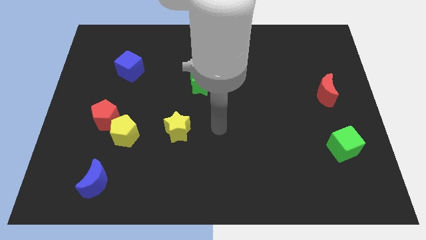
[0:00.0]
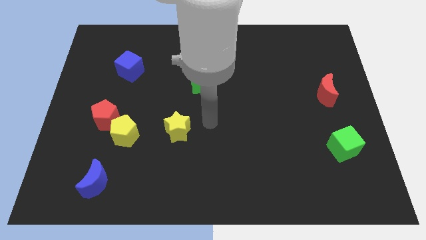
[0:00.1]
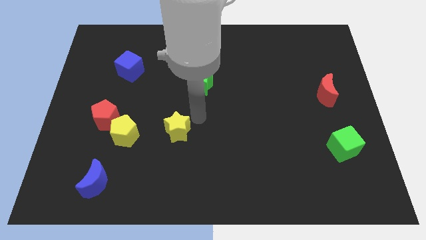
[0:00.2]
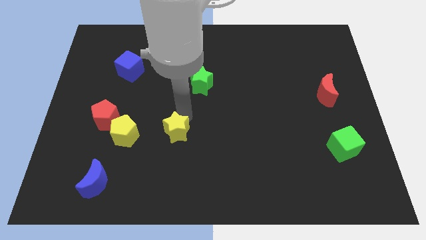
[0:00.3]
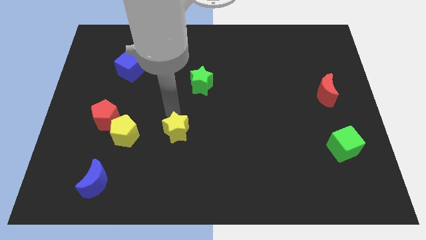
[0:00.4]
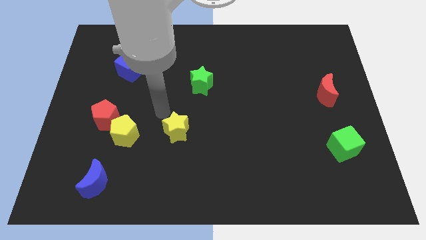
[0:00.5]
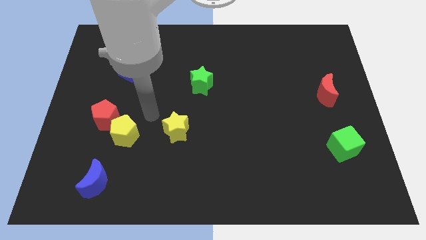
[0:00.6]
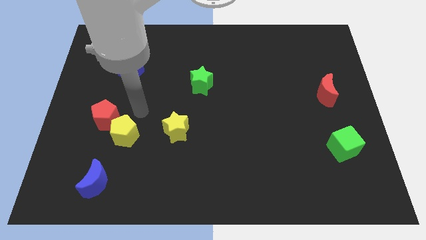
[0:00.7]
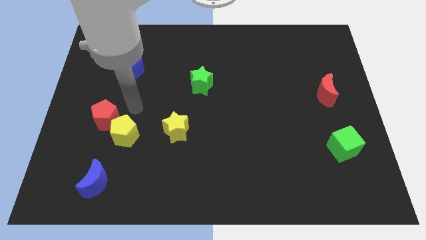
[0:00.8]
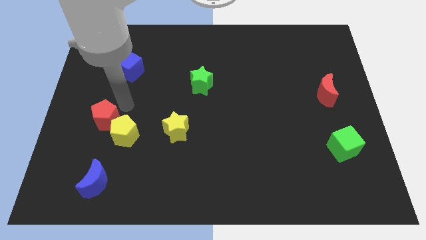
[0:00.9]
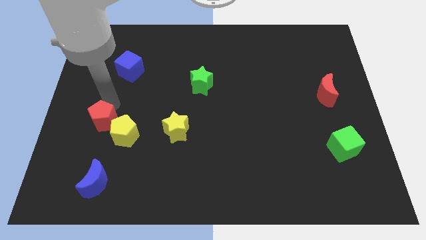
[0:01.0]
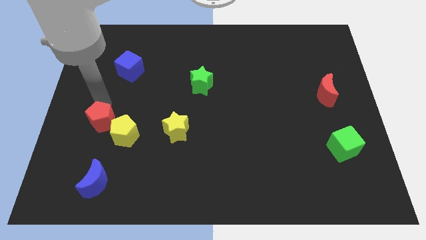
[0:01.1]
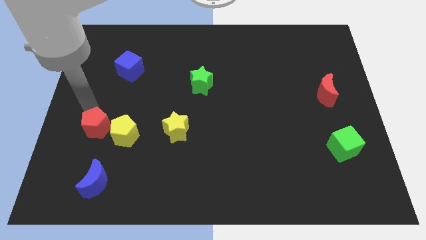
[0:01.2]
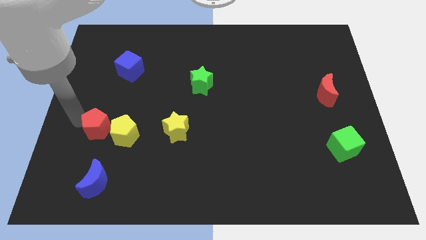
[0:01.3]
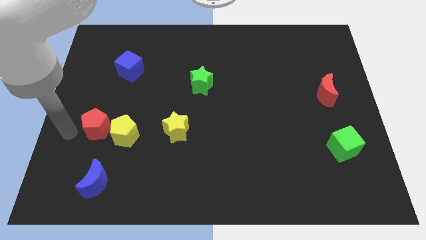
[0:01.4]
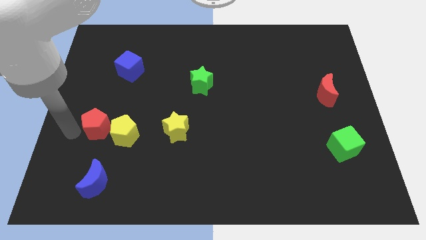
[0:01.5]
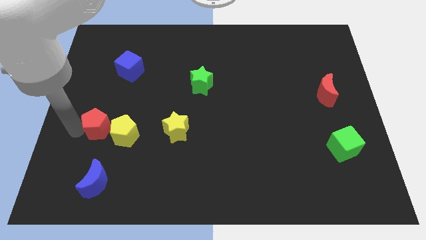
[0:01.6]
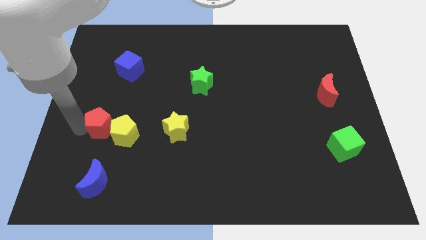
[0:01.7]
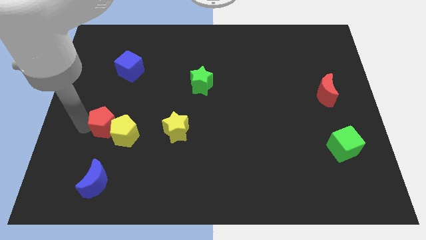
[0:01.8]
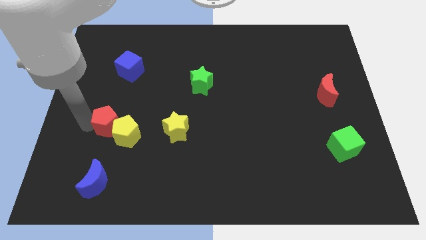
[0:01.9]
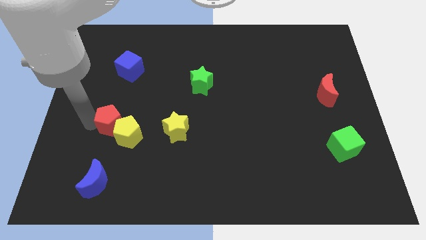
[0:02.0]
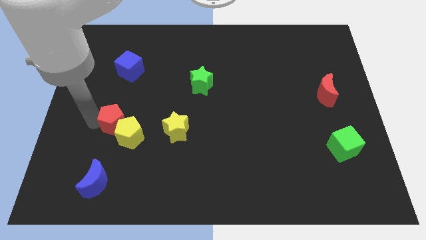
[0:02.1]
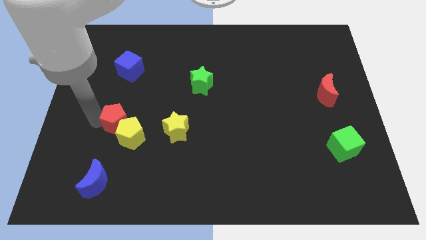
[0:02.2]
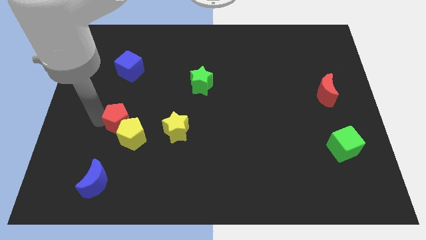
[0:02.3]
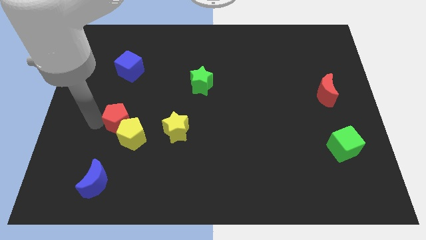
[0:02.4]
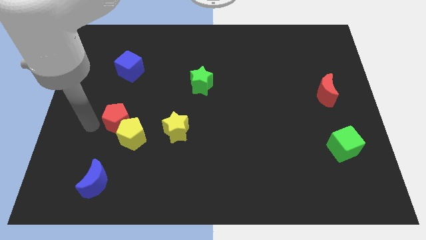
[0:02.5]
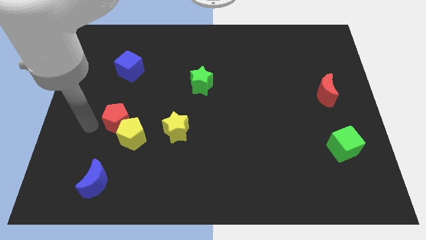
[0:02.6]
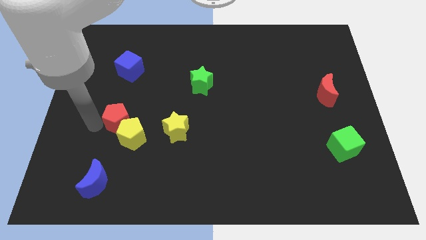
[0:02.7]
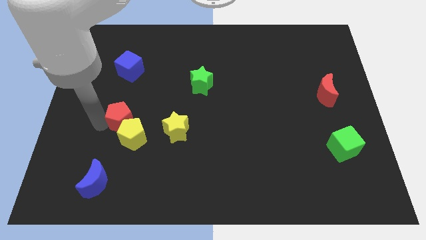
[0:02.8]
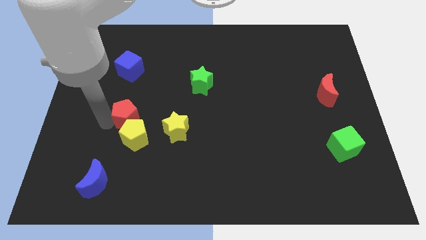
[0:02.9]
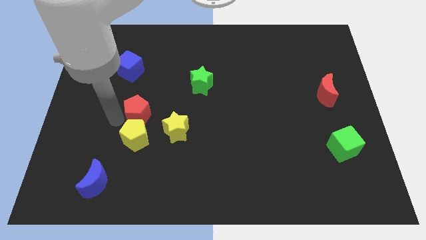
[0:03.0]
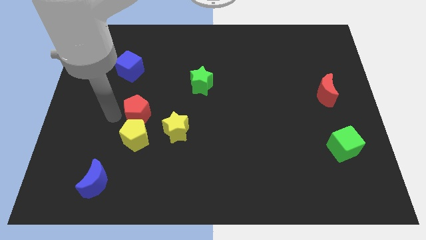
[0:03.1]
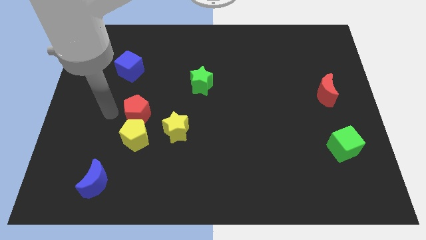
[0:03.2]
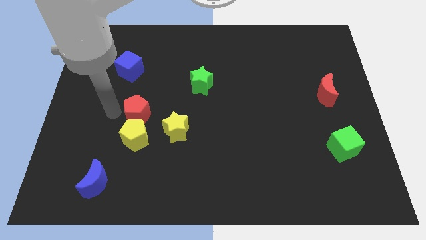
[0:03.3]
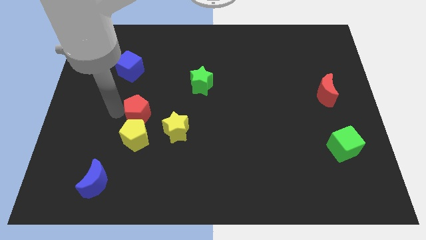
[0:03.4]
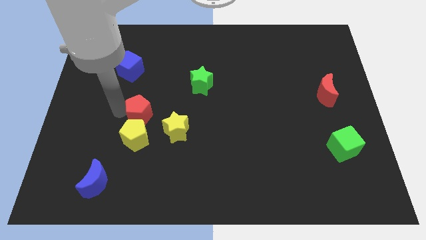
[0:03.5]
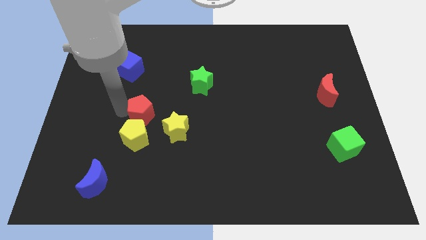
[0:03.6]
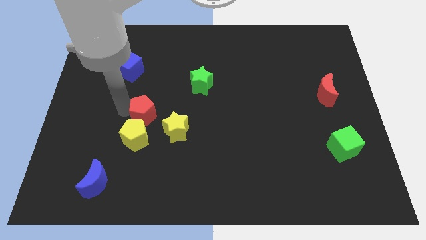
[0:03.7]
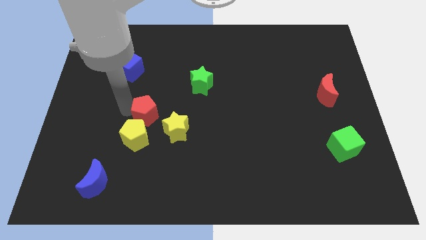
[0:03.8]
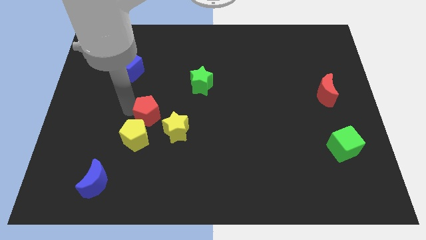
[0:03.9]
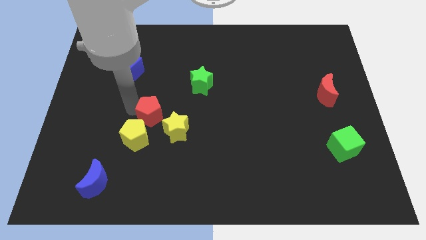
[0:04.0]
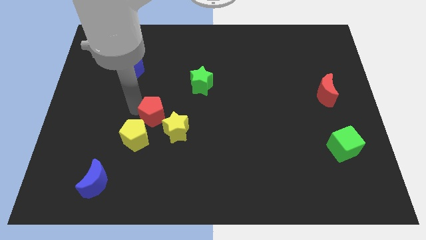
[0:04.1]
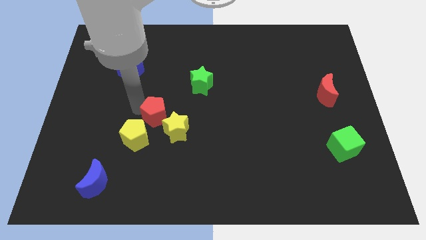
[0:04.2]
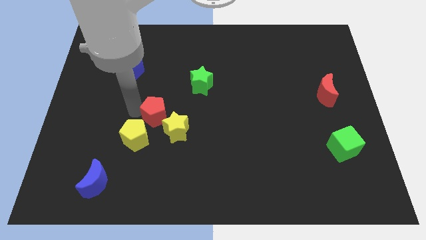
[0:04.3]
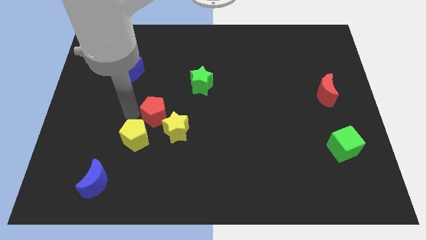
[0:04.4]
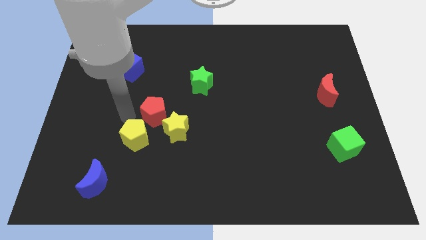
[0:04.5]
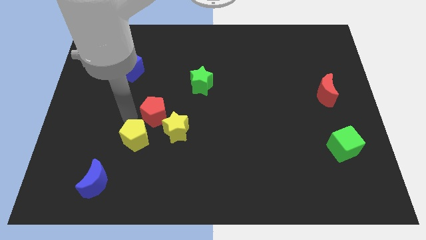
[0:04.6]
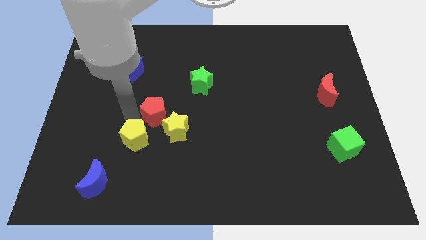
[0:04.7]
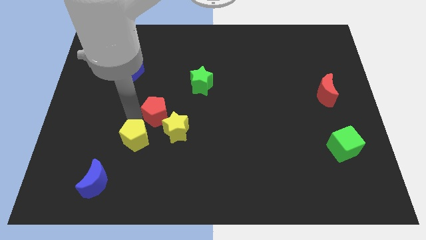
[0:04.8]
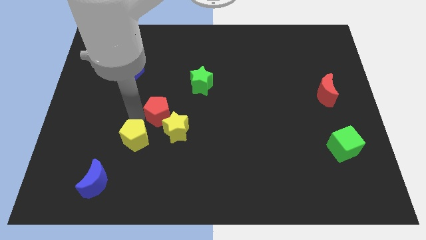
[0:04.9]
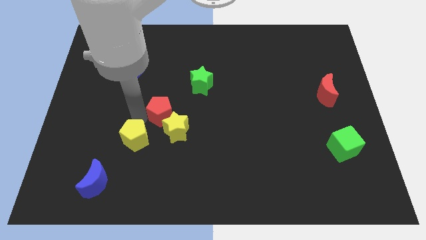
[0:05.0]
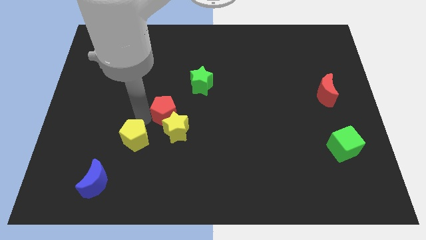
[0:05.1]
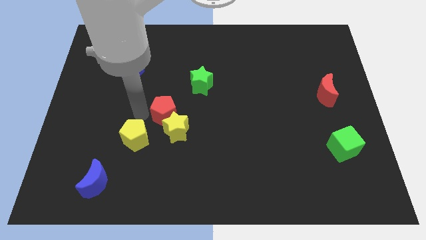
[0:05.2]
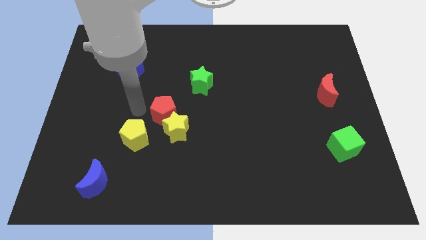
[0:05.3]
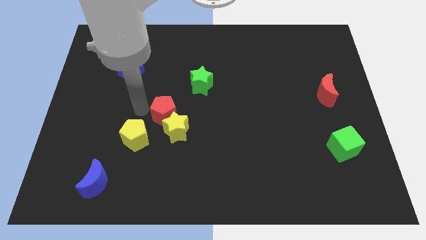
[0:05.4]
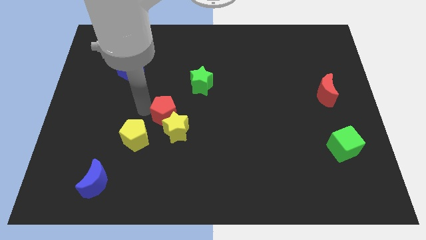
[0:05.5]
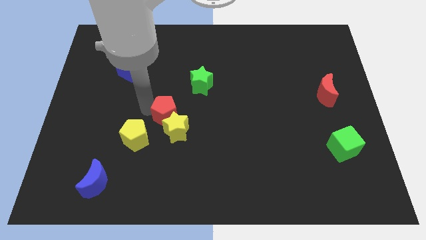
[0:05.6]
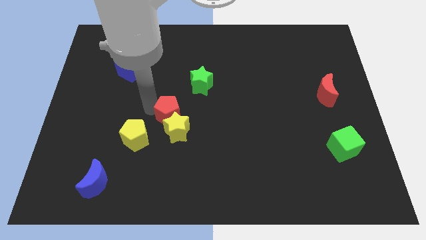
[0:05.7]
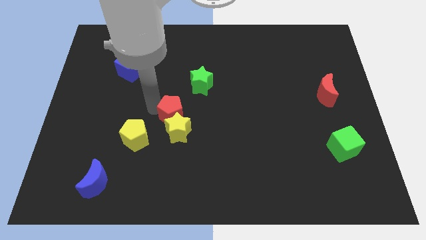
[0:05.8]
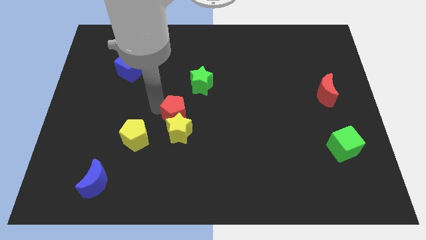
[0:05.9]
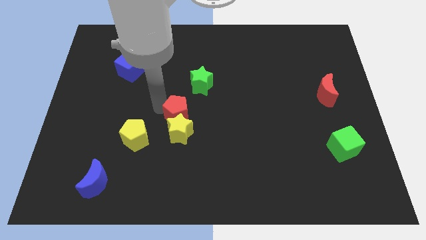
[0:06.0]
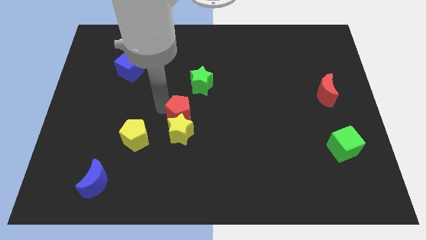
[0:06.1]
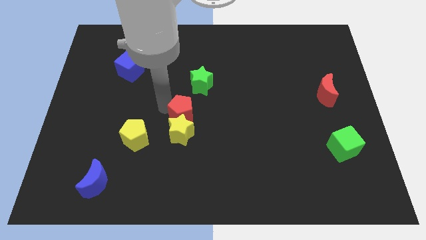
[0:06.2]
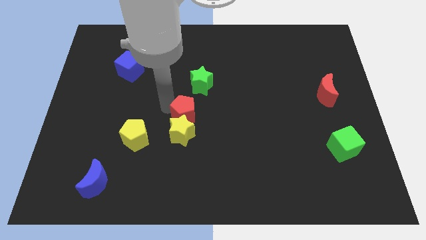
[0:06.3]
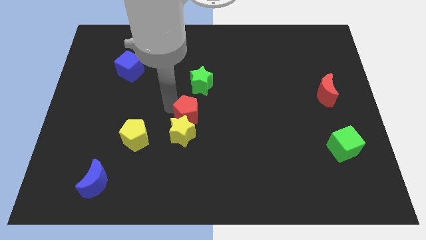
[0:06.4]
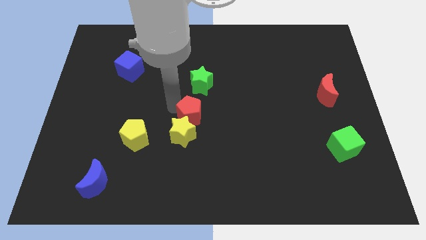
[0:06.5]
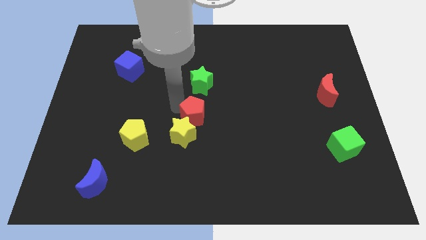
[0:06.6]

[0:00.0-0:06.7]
push the red pentagon to the right

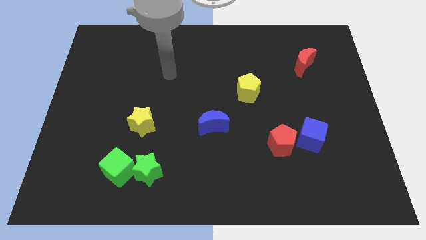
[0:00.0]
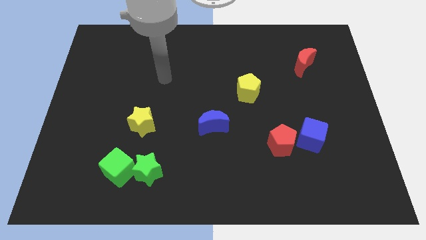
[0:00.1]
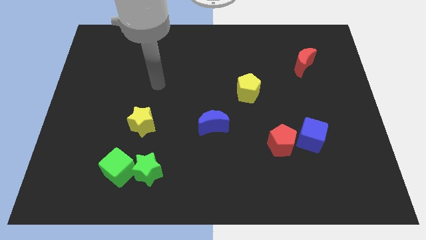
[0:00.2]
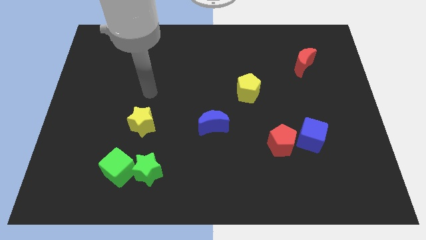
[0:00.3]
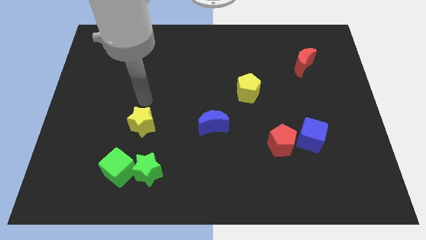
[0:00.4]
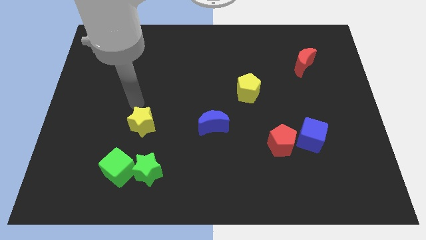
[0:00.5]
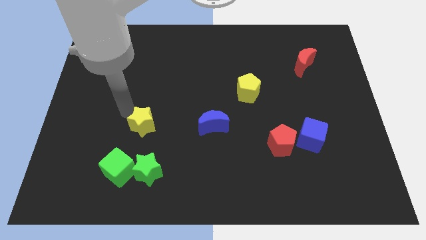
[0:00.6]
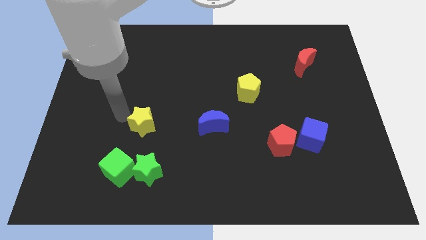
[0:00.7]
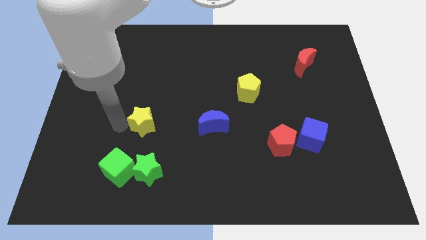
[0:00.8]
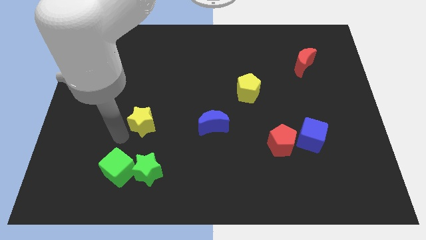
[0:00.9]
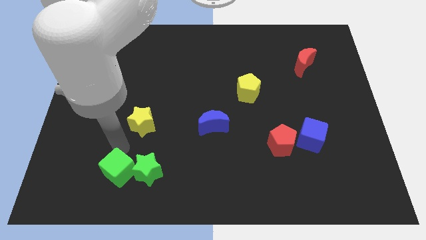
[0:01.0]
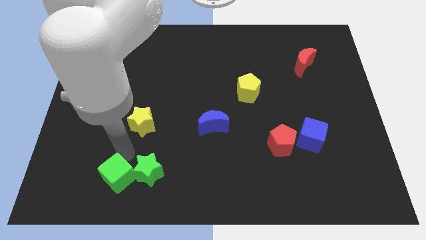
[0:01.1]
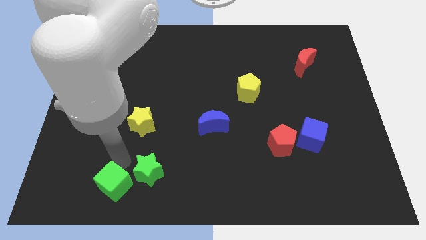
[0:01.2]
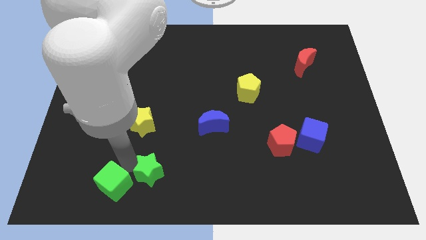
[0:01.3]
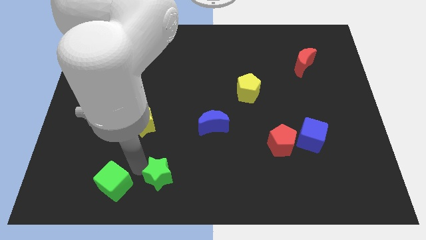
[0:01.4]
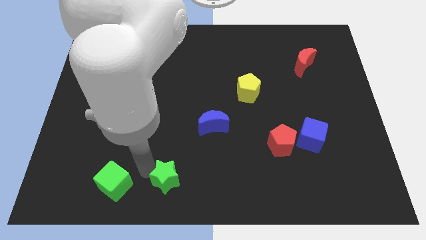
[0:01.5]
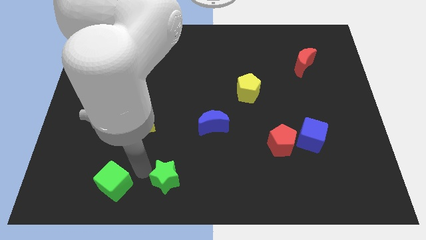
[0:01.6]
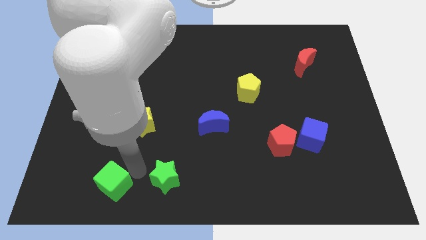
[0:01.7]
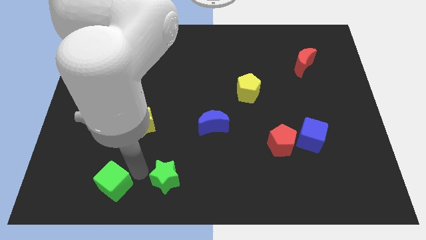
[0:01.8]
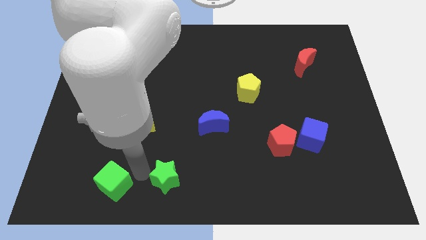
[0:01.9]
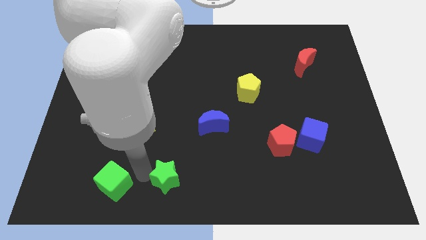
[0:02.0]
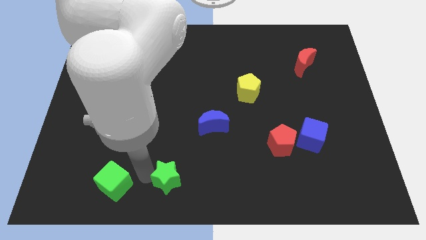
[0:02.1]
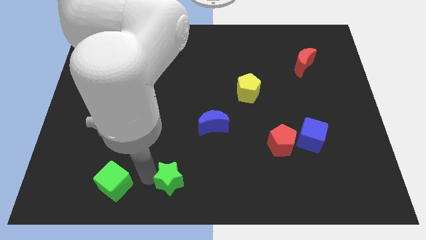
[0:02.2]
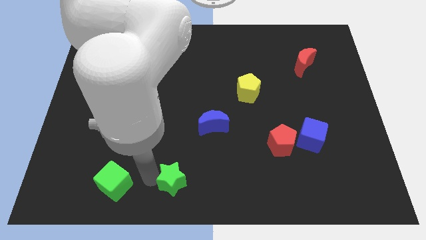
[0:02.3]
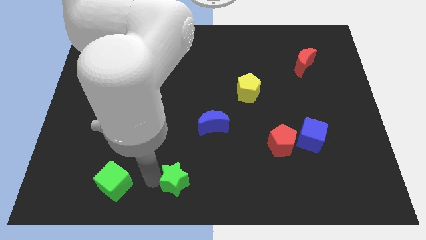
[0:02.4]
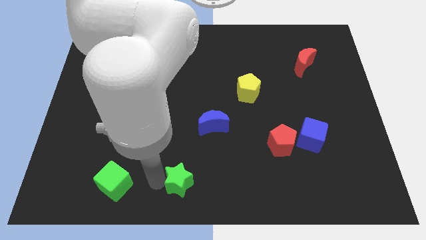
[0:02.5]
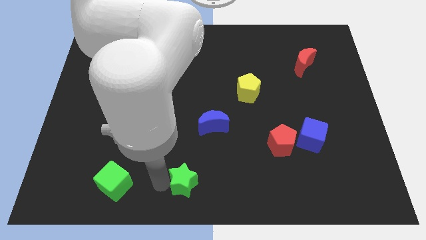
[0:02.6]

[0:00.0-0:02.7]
move the green star to the right somewhat
